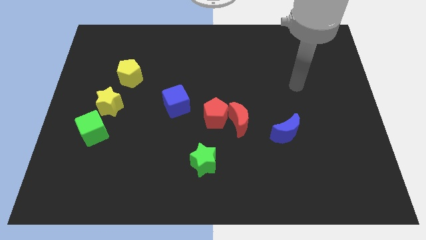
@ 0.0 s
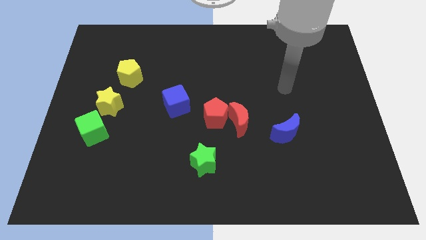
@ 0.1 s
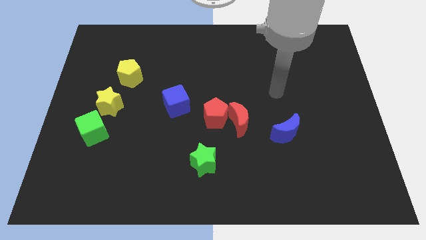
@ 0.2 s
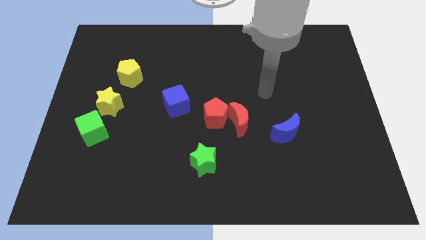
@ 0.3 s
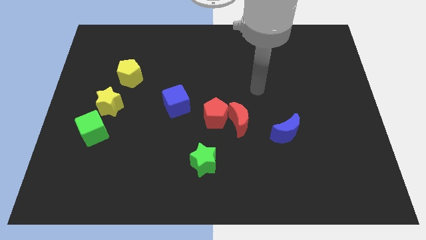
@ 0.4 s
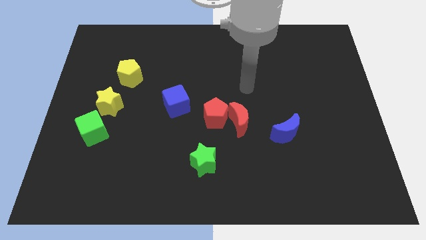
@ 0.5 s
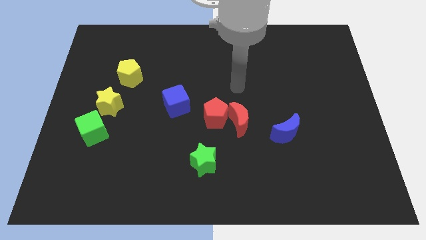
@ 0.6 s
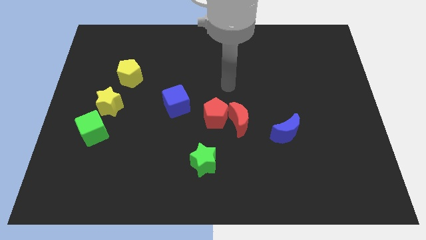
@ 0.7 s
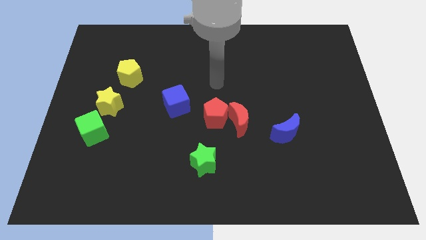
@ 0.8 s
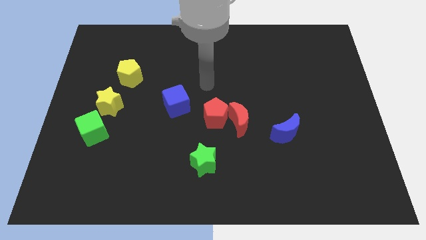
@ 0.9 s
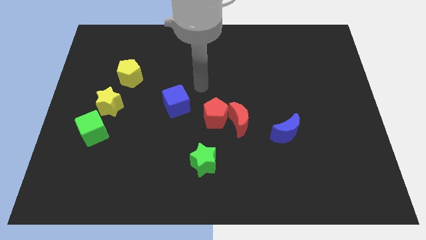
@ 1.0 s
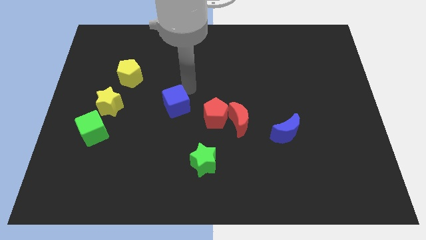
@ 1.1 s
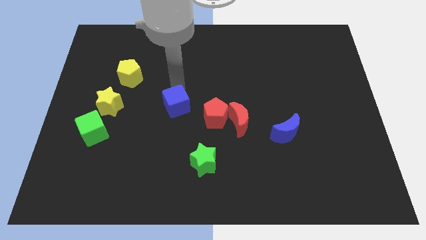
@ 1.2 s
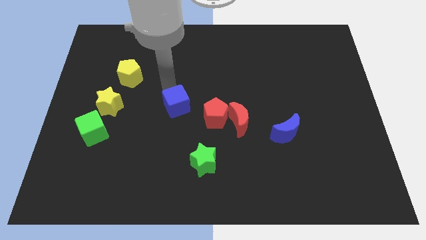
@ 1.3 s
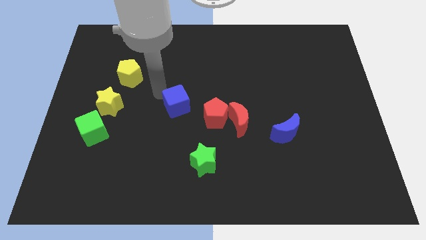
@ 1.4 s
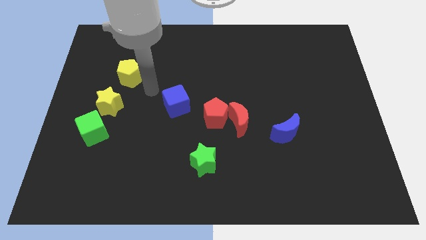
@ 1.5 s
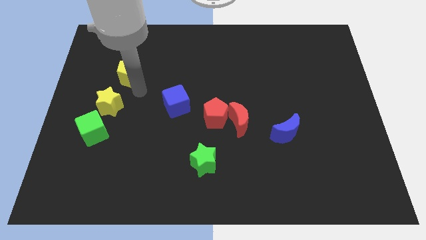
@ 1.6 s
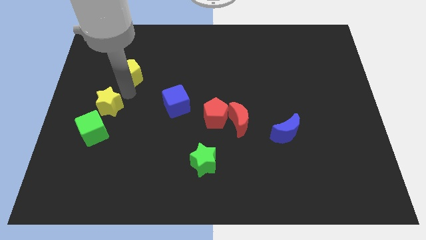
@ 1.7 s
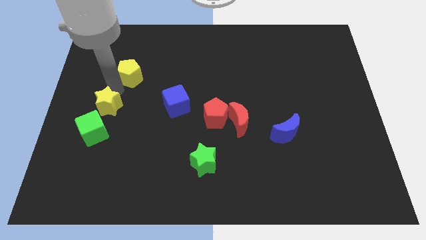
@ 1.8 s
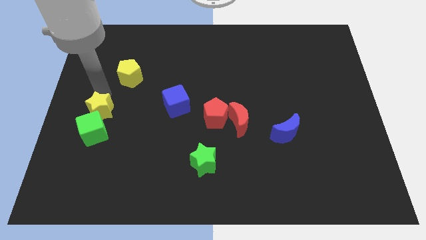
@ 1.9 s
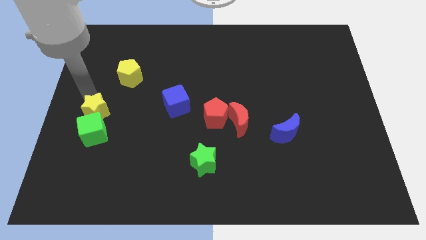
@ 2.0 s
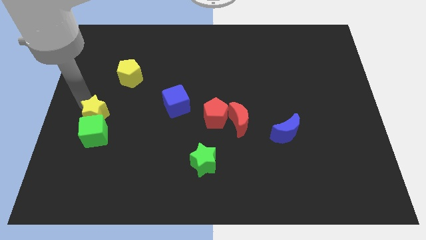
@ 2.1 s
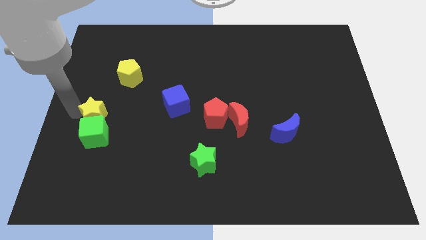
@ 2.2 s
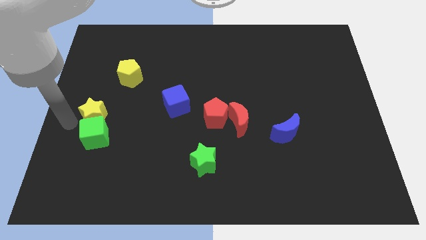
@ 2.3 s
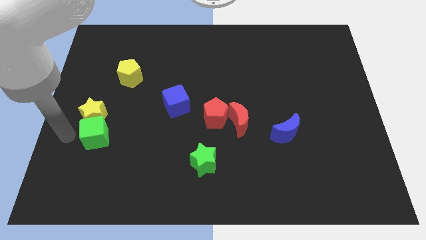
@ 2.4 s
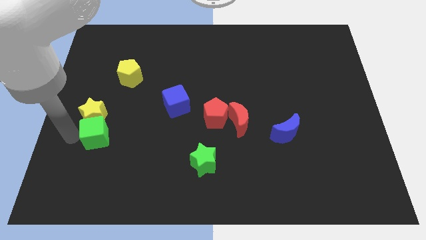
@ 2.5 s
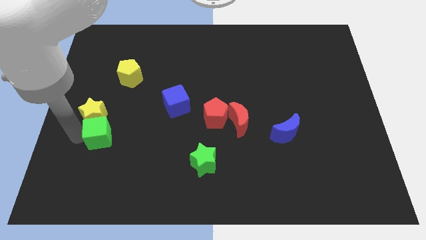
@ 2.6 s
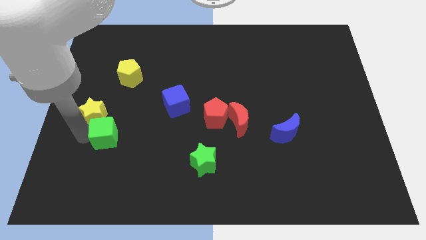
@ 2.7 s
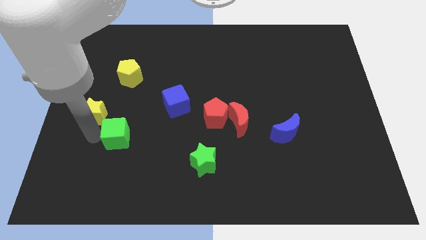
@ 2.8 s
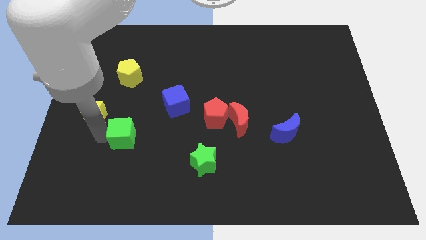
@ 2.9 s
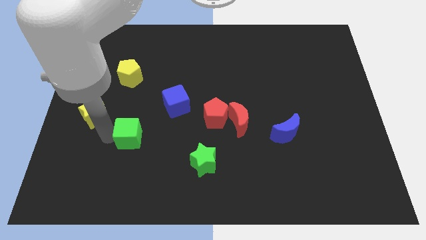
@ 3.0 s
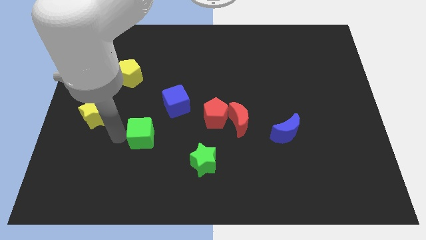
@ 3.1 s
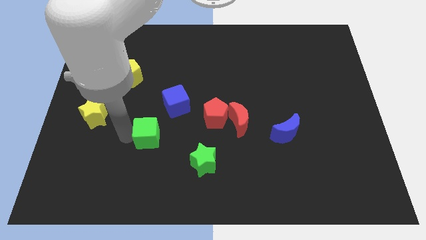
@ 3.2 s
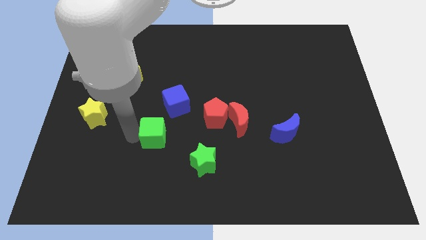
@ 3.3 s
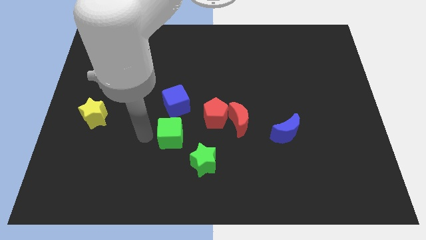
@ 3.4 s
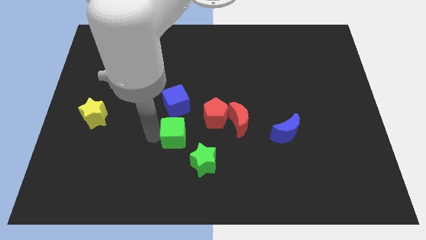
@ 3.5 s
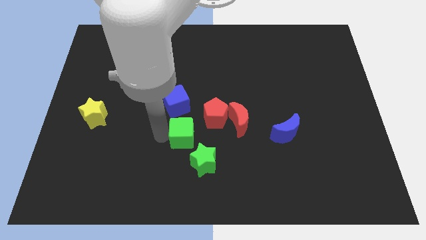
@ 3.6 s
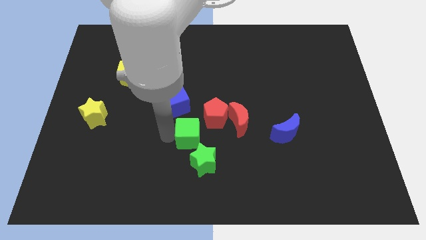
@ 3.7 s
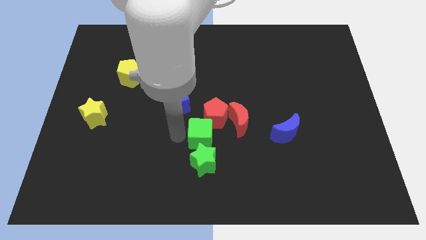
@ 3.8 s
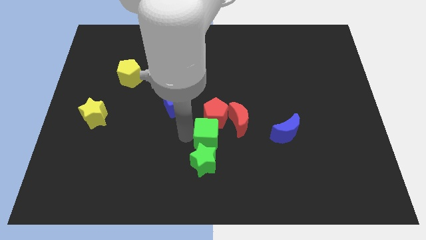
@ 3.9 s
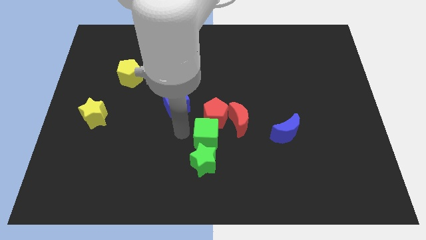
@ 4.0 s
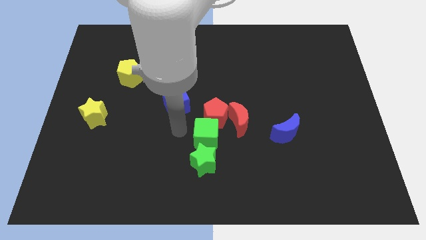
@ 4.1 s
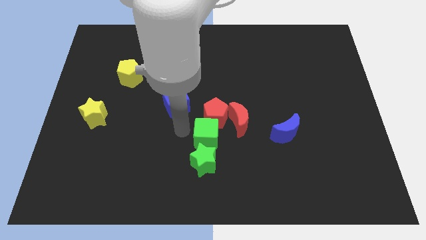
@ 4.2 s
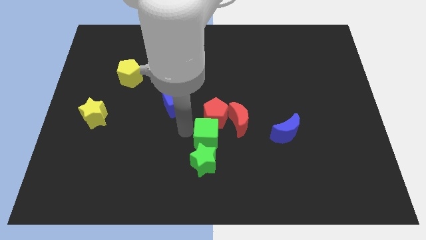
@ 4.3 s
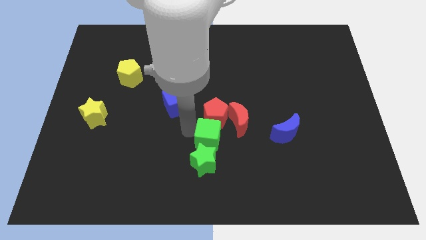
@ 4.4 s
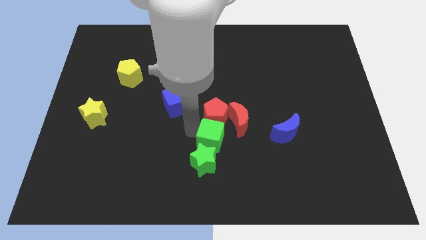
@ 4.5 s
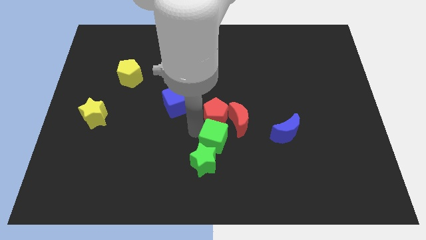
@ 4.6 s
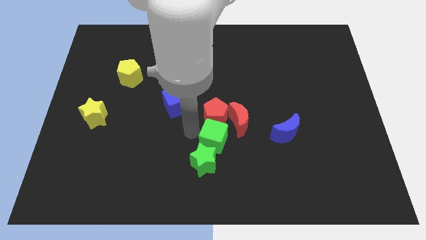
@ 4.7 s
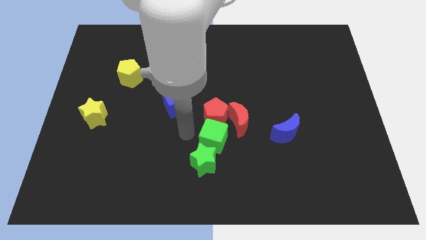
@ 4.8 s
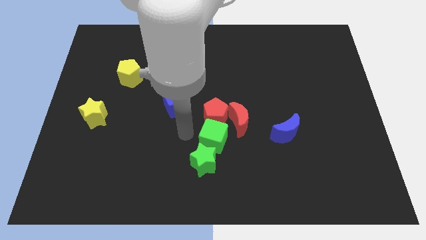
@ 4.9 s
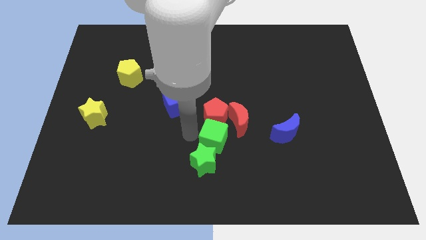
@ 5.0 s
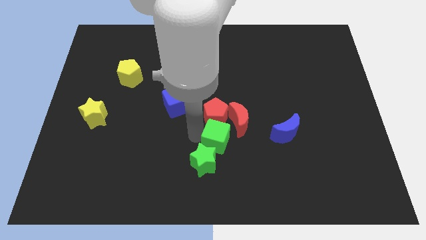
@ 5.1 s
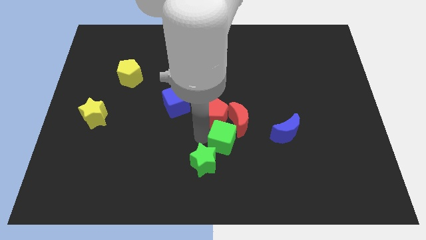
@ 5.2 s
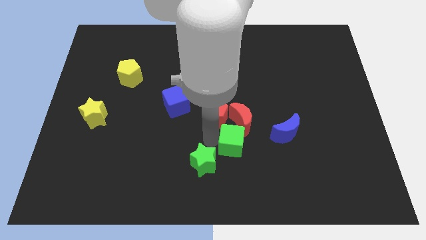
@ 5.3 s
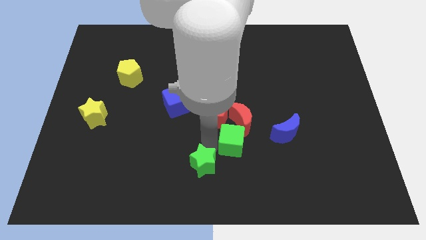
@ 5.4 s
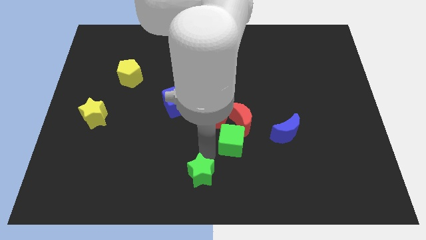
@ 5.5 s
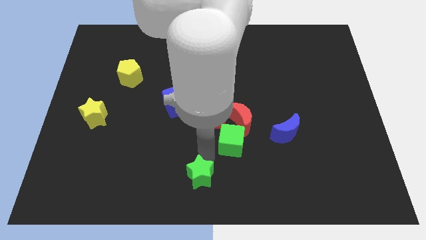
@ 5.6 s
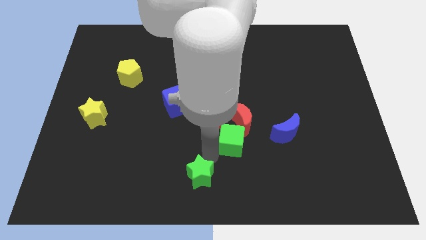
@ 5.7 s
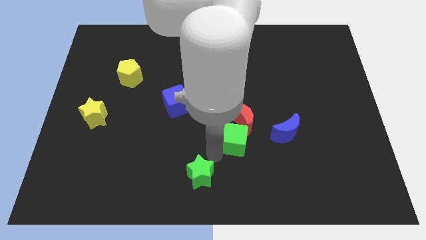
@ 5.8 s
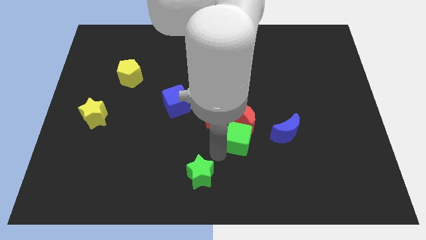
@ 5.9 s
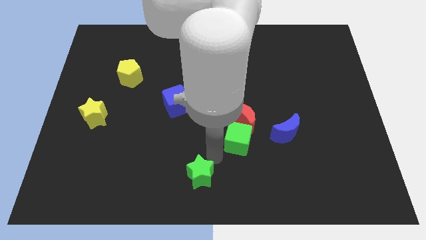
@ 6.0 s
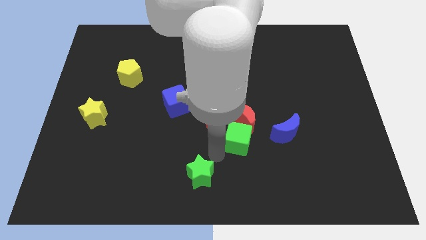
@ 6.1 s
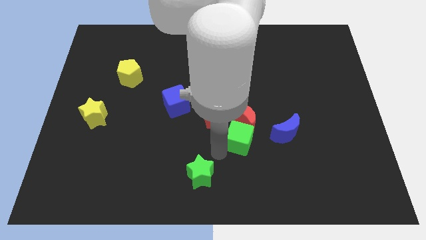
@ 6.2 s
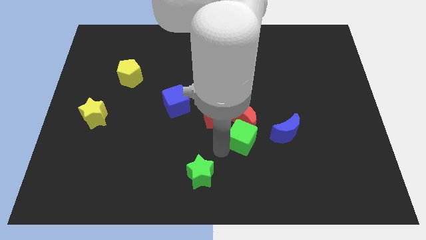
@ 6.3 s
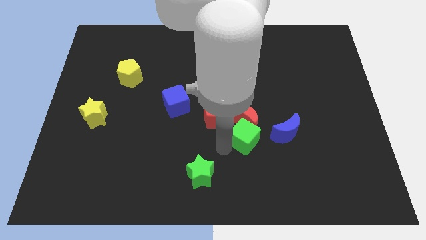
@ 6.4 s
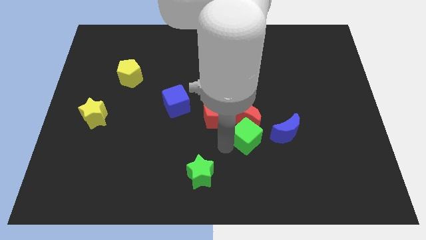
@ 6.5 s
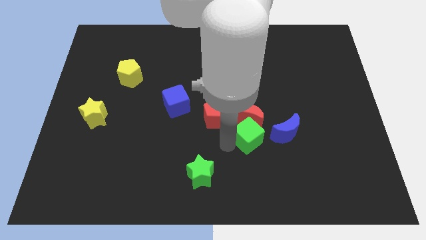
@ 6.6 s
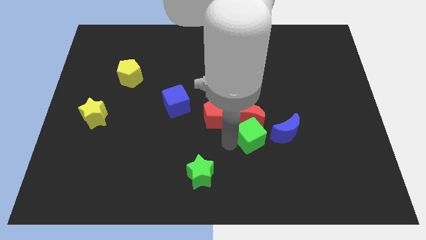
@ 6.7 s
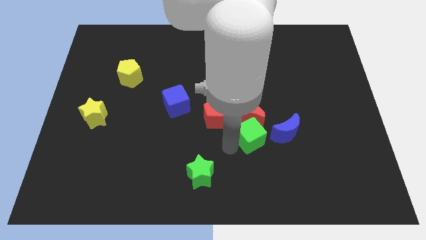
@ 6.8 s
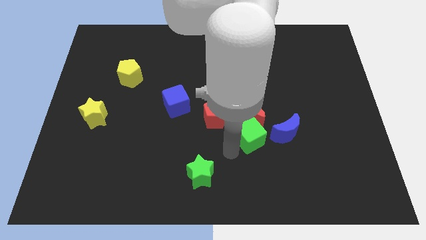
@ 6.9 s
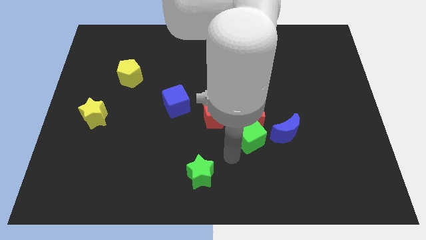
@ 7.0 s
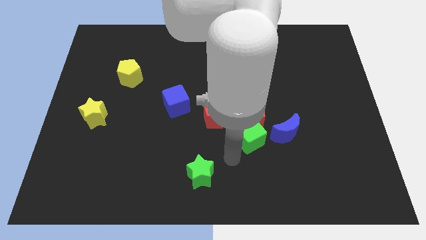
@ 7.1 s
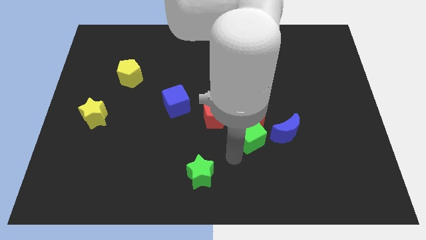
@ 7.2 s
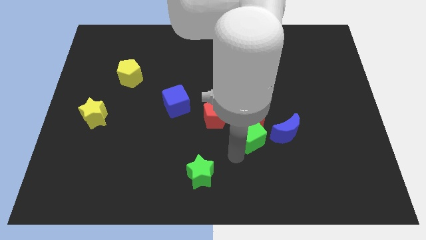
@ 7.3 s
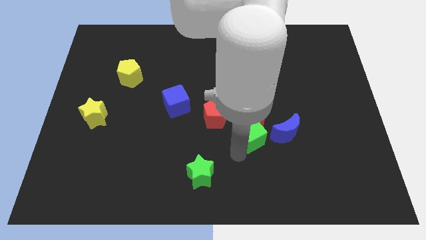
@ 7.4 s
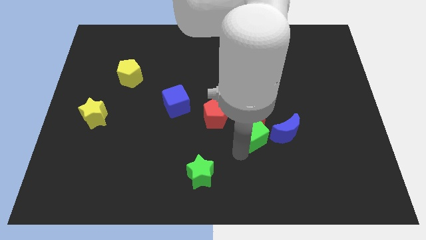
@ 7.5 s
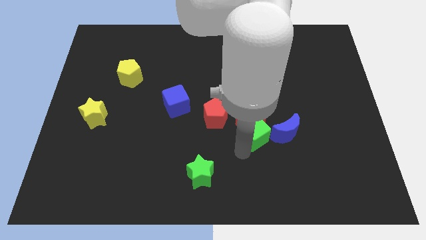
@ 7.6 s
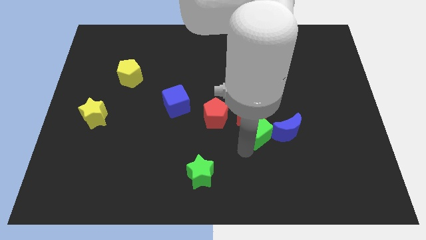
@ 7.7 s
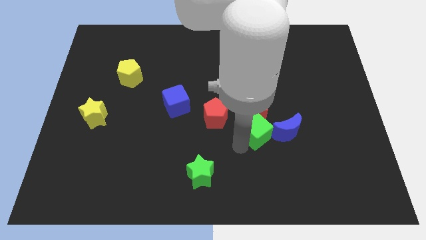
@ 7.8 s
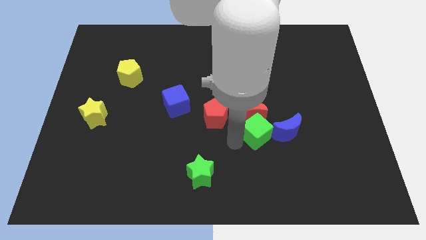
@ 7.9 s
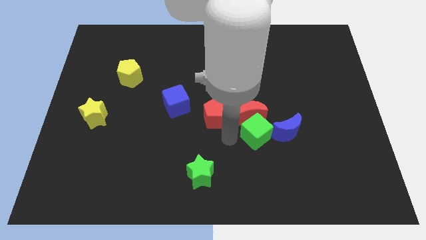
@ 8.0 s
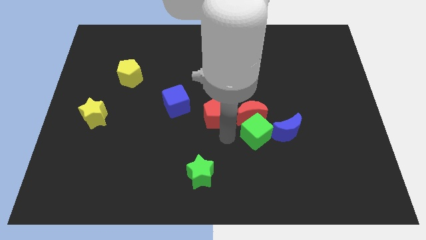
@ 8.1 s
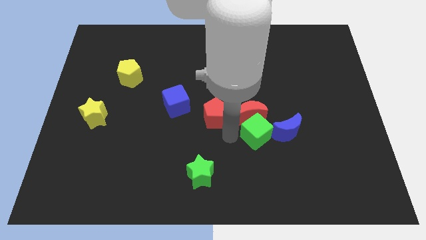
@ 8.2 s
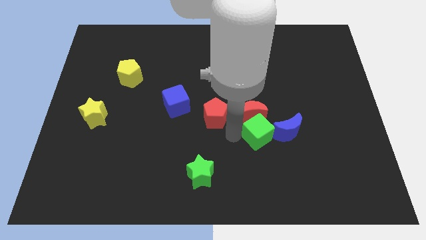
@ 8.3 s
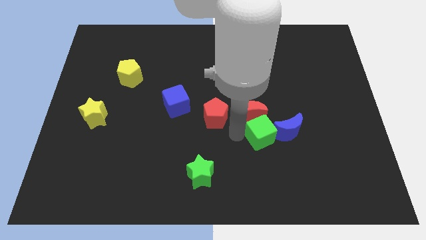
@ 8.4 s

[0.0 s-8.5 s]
push the green cube next to the blue moon
